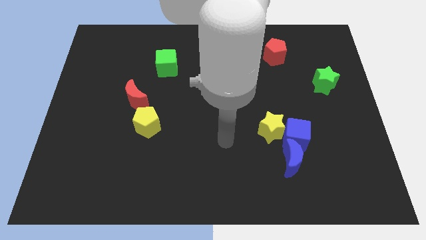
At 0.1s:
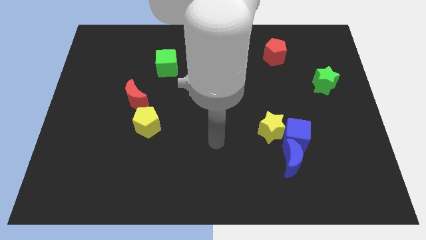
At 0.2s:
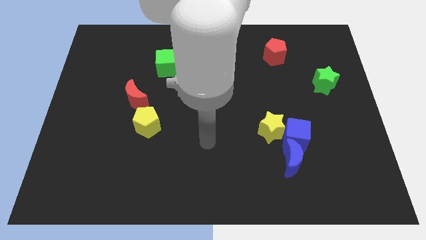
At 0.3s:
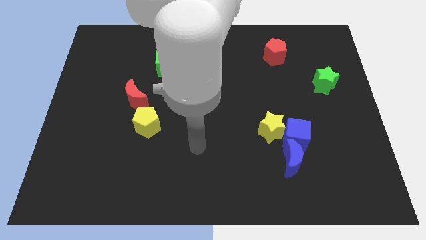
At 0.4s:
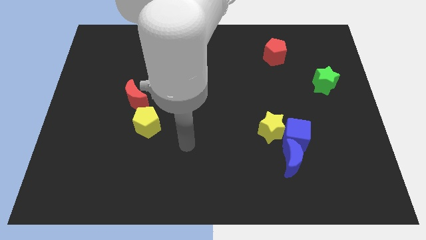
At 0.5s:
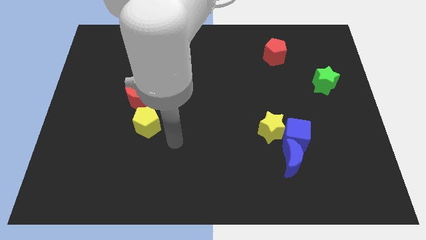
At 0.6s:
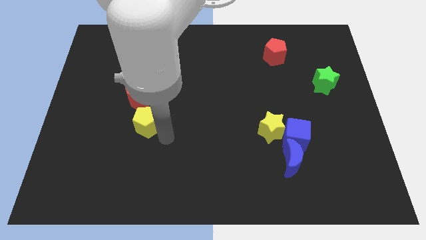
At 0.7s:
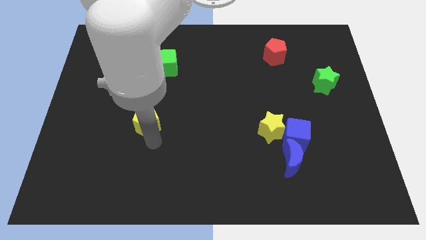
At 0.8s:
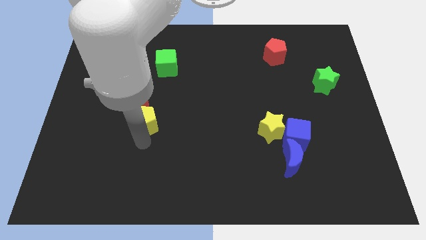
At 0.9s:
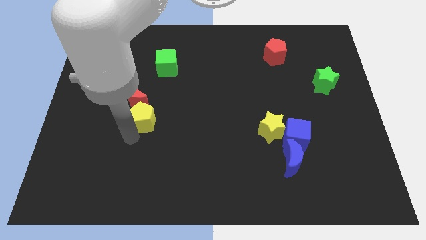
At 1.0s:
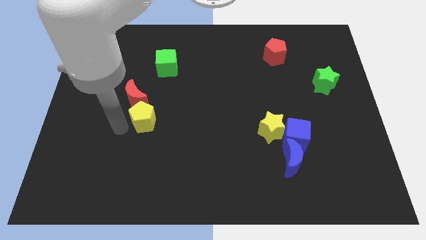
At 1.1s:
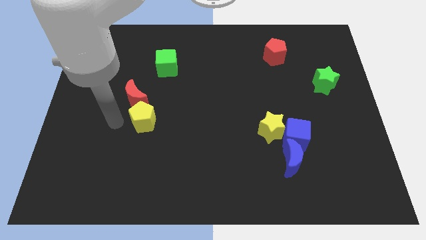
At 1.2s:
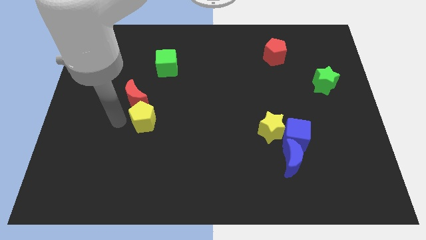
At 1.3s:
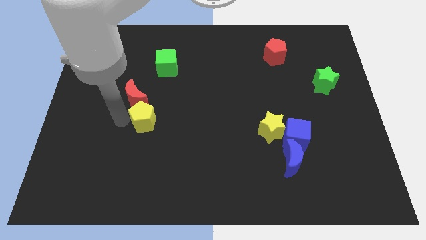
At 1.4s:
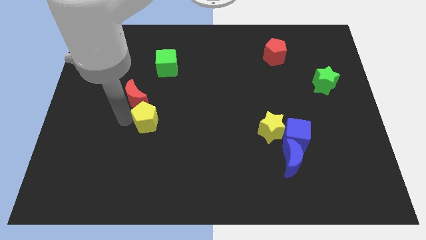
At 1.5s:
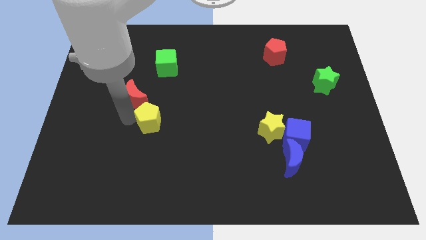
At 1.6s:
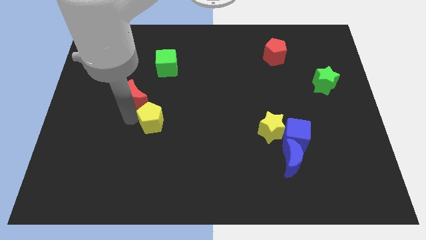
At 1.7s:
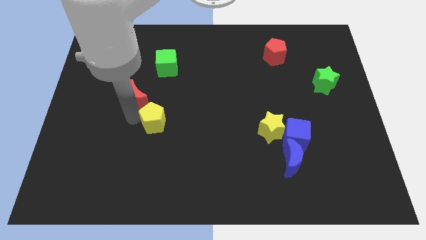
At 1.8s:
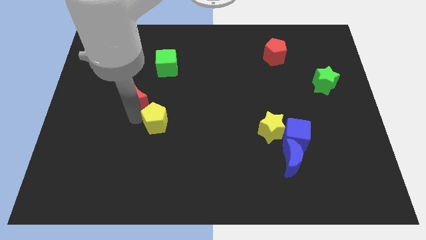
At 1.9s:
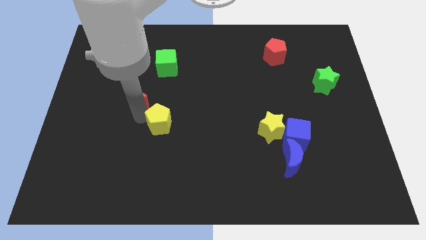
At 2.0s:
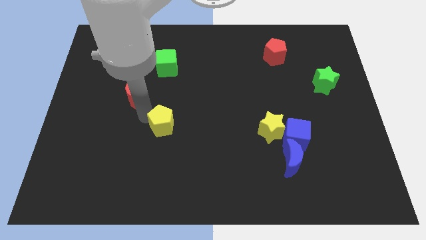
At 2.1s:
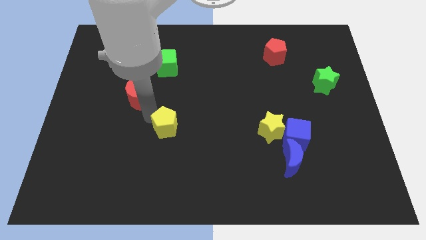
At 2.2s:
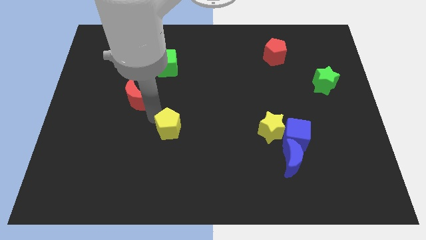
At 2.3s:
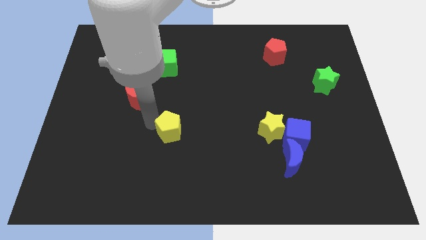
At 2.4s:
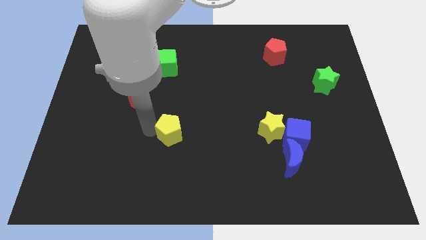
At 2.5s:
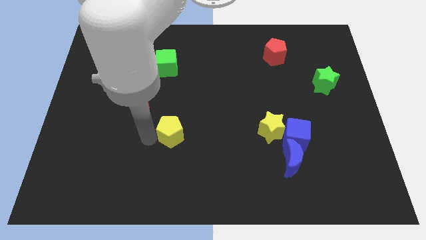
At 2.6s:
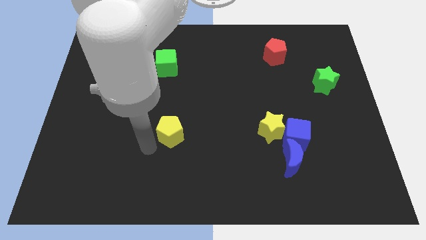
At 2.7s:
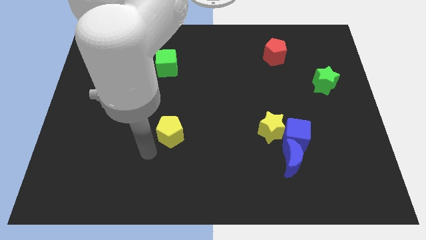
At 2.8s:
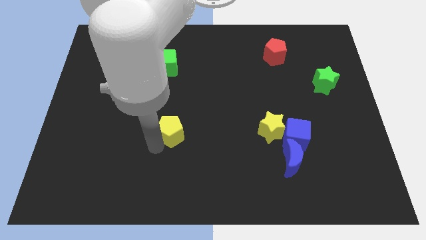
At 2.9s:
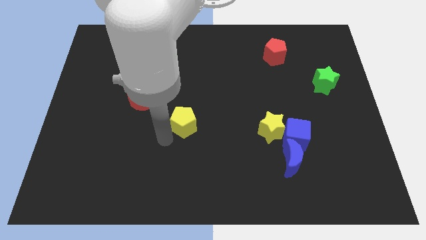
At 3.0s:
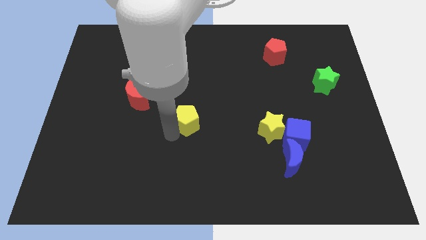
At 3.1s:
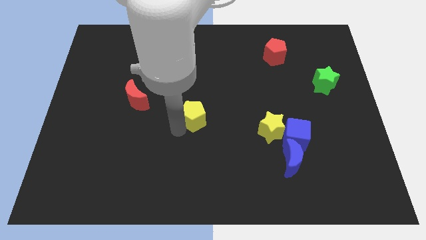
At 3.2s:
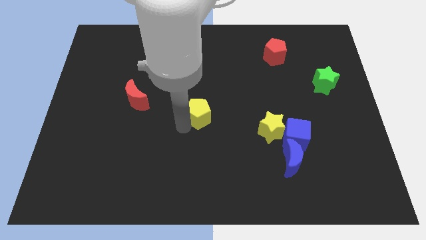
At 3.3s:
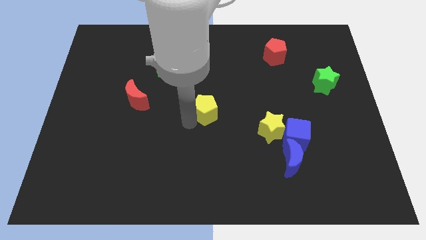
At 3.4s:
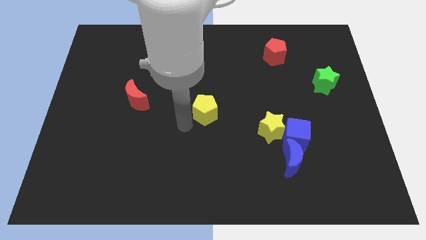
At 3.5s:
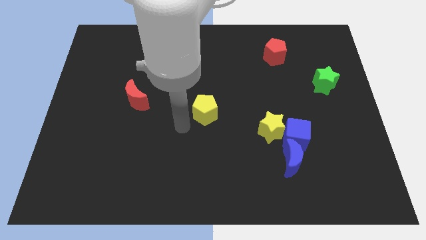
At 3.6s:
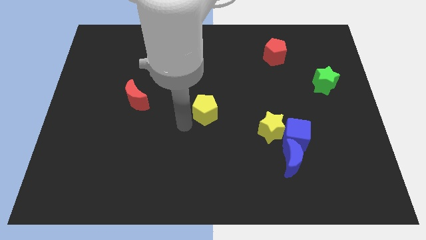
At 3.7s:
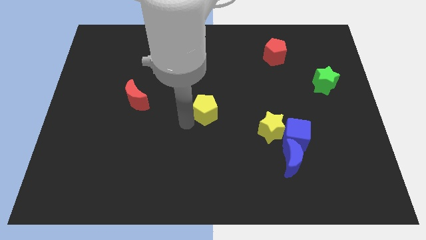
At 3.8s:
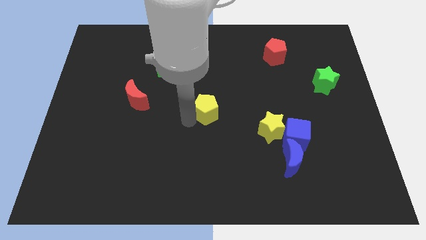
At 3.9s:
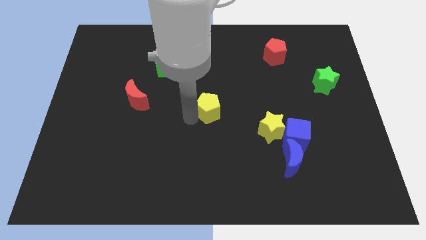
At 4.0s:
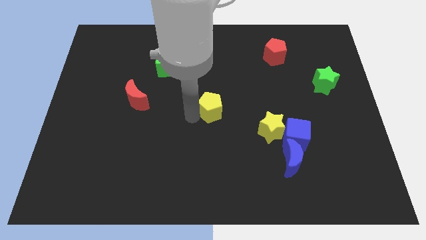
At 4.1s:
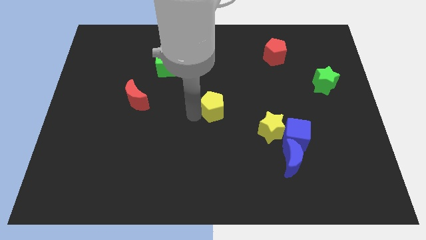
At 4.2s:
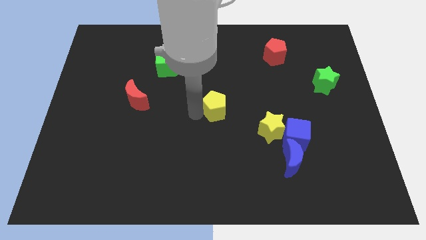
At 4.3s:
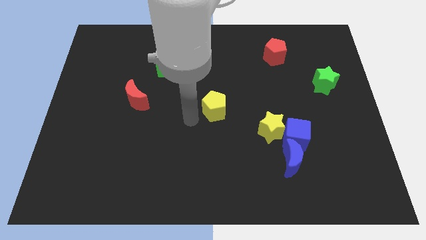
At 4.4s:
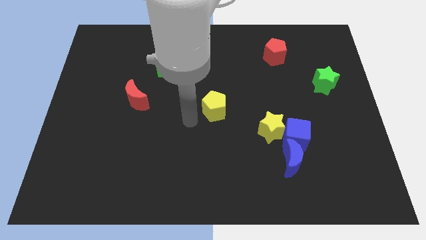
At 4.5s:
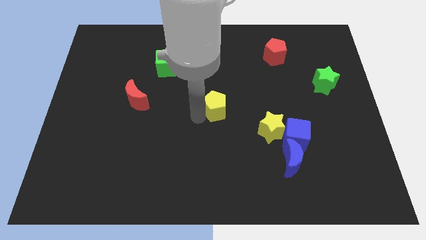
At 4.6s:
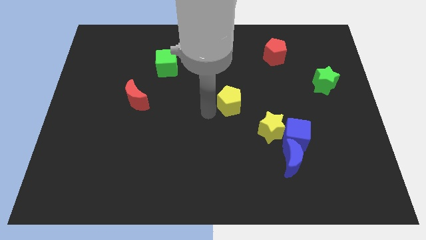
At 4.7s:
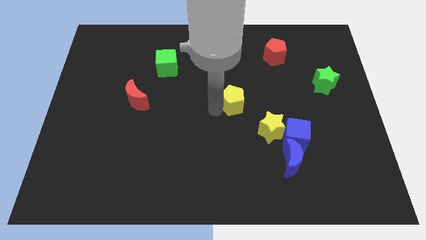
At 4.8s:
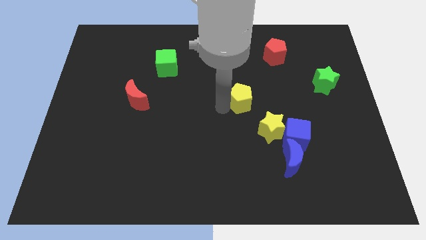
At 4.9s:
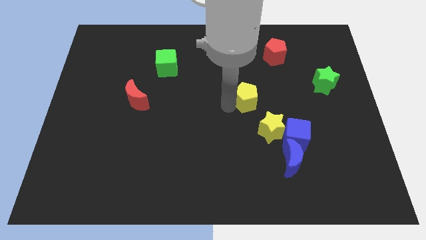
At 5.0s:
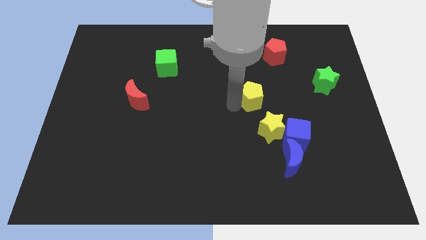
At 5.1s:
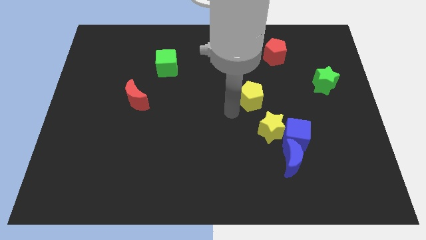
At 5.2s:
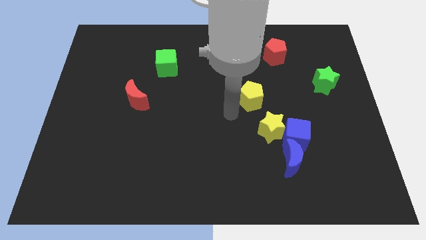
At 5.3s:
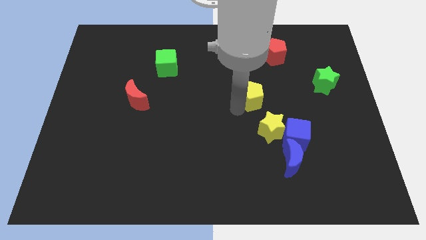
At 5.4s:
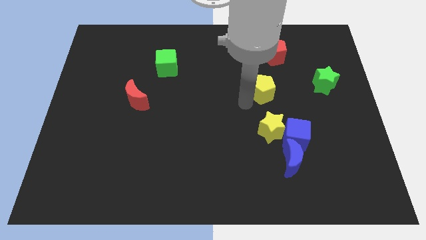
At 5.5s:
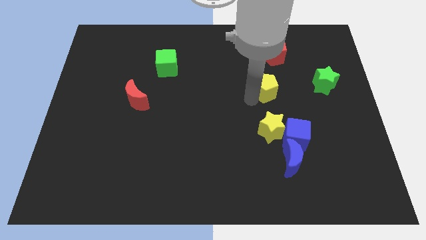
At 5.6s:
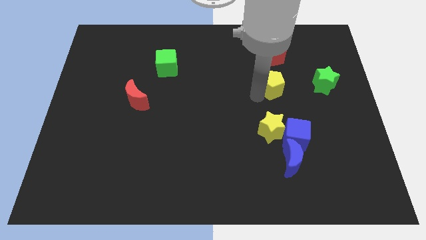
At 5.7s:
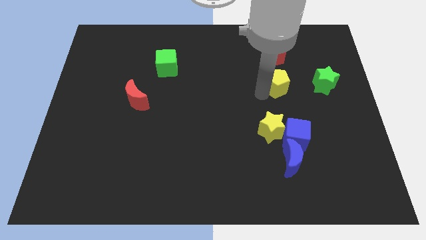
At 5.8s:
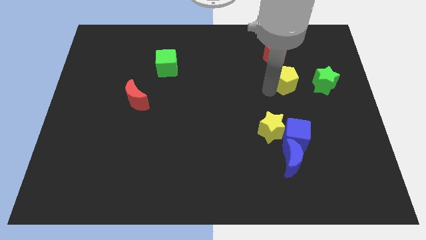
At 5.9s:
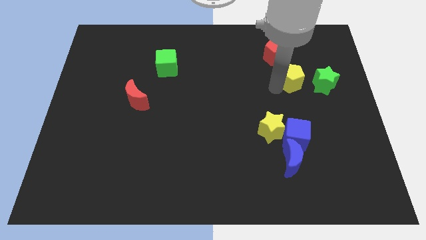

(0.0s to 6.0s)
move the yellow pentagon to the bottom right side of the red pentagon
